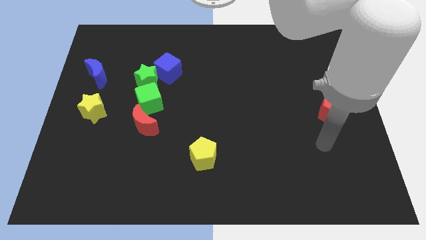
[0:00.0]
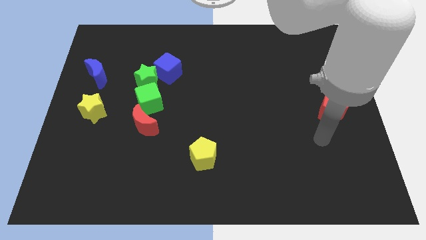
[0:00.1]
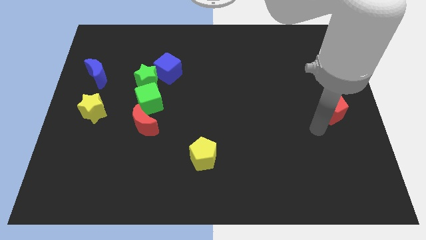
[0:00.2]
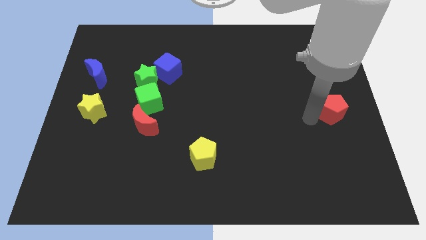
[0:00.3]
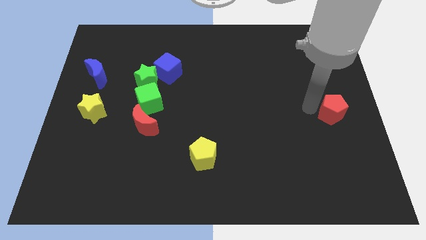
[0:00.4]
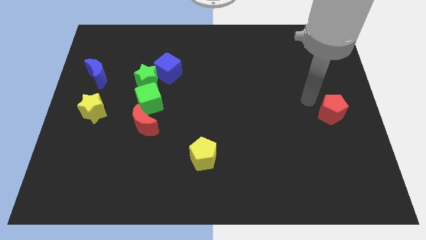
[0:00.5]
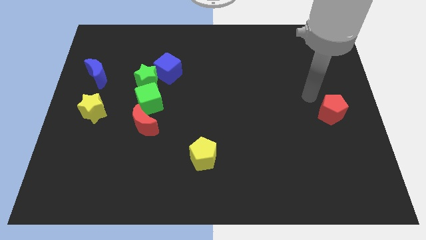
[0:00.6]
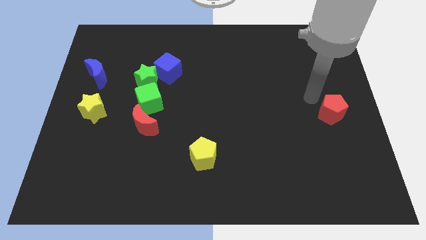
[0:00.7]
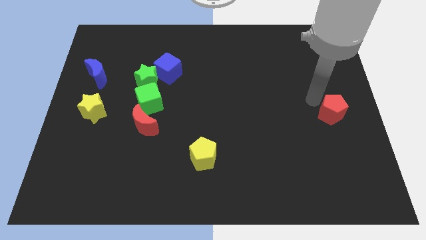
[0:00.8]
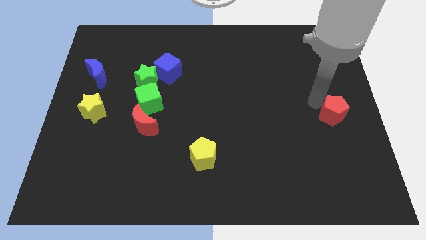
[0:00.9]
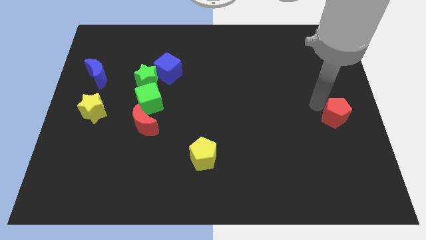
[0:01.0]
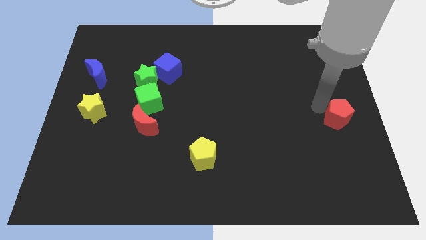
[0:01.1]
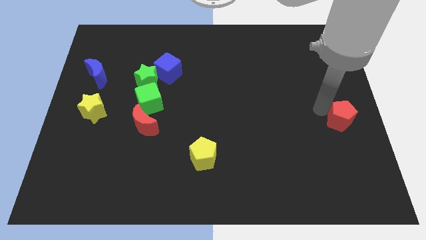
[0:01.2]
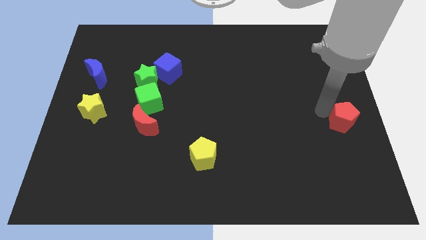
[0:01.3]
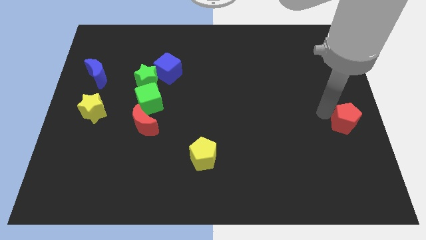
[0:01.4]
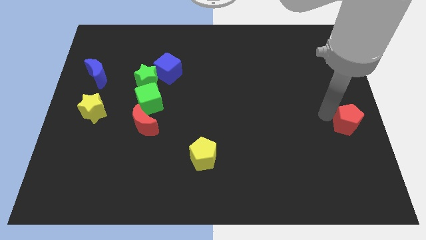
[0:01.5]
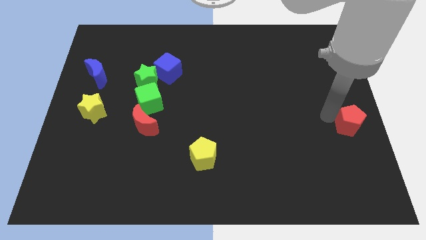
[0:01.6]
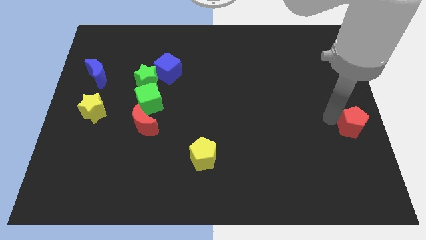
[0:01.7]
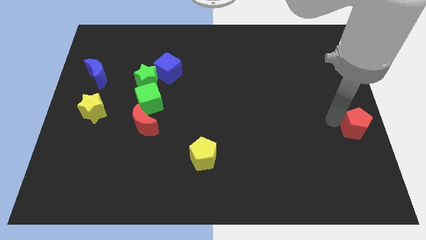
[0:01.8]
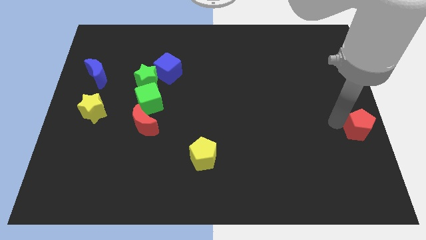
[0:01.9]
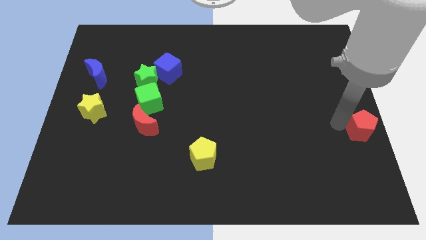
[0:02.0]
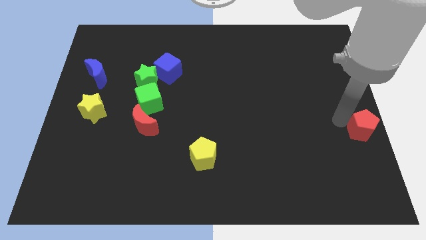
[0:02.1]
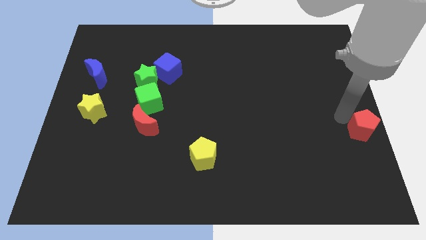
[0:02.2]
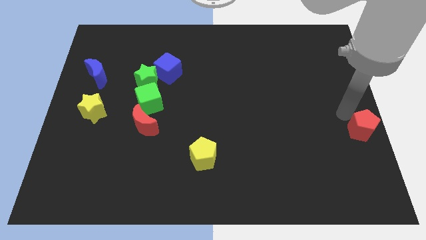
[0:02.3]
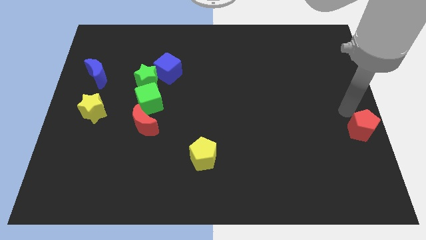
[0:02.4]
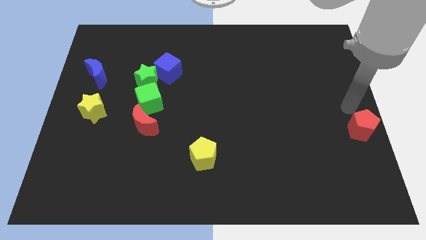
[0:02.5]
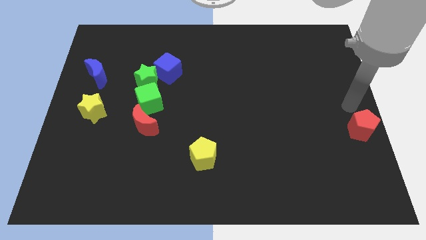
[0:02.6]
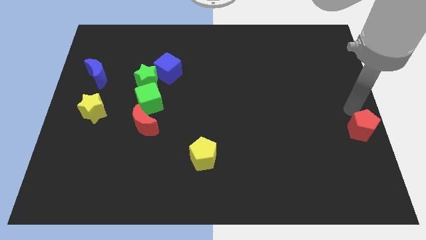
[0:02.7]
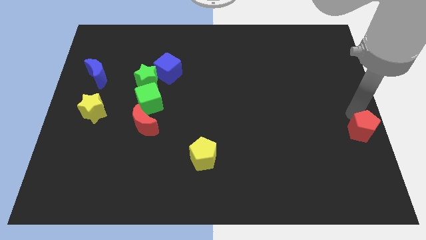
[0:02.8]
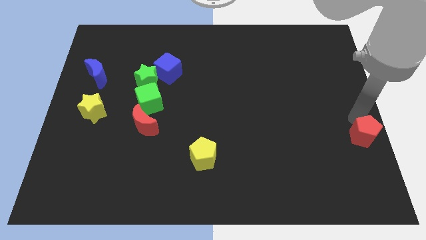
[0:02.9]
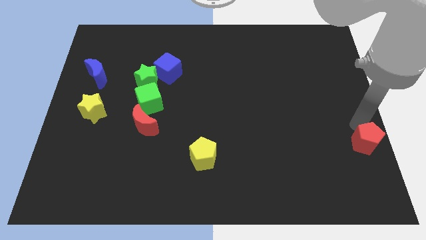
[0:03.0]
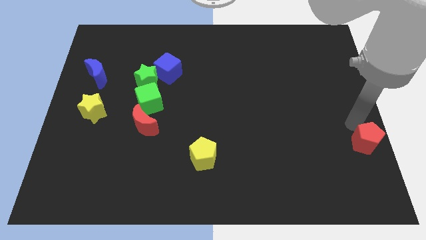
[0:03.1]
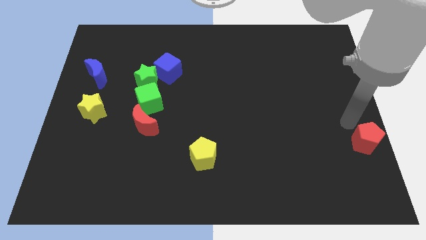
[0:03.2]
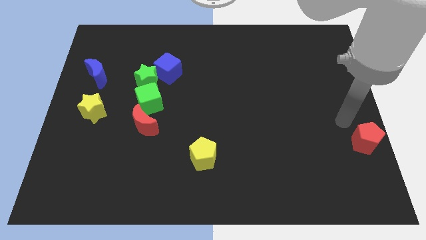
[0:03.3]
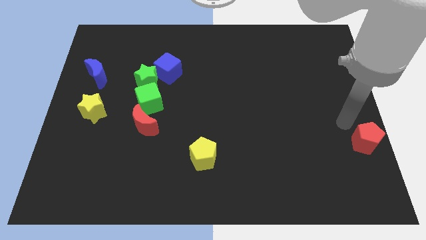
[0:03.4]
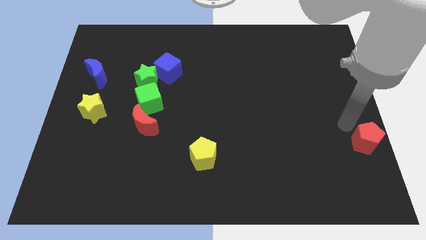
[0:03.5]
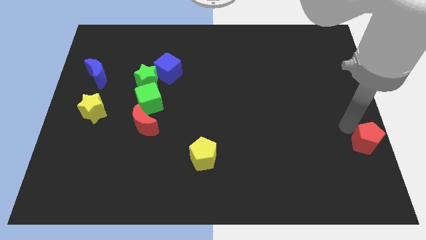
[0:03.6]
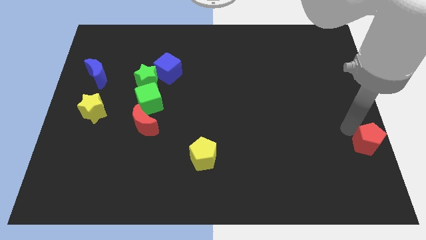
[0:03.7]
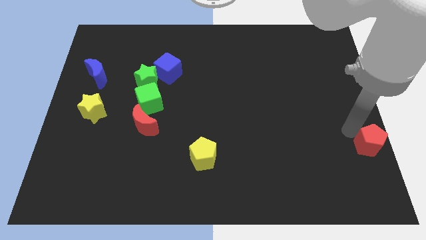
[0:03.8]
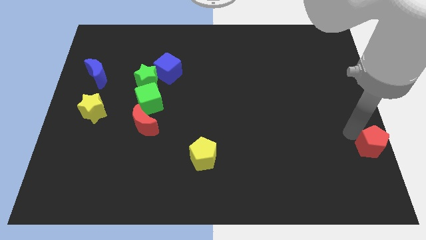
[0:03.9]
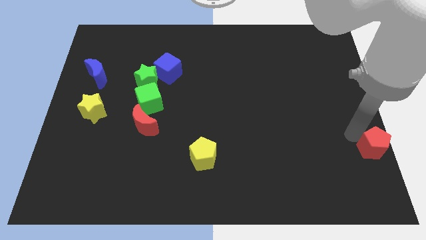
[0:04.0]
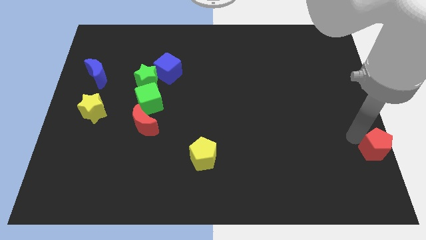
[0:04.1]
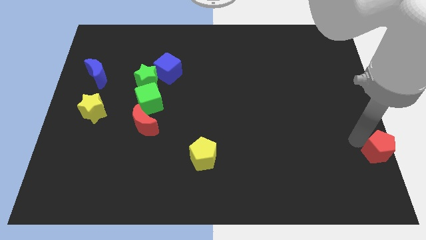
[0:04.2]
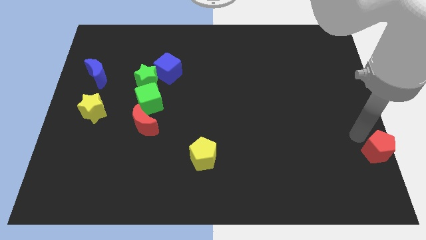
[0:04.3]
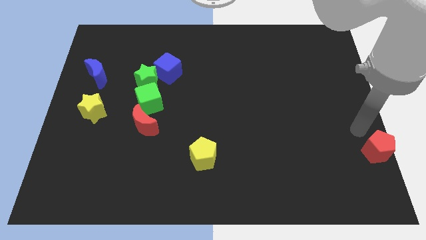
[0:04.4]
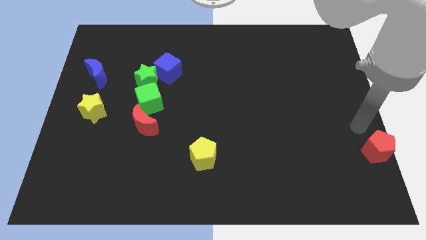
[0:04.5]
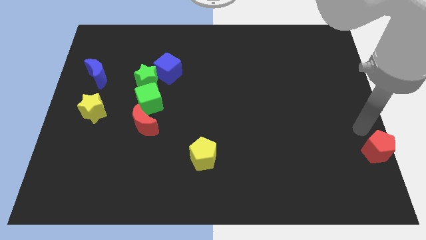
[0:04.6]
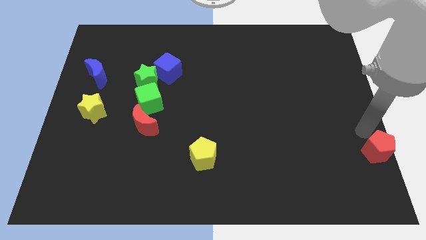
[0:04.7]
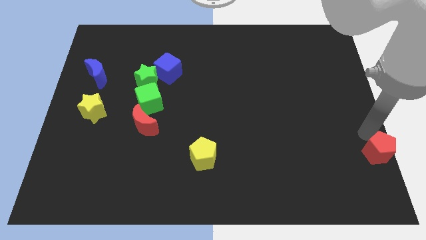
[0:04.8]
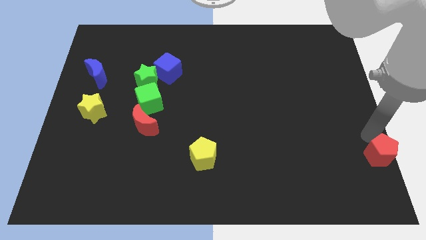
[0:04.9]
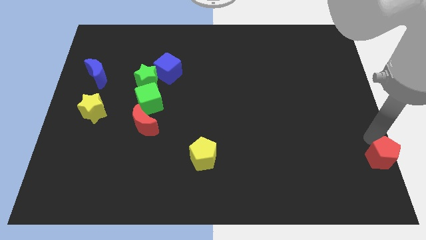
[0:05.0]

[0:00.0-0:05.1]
slide the red pentagon to the bottom right

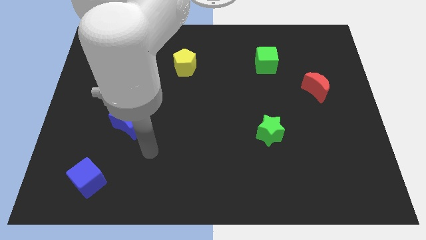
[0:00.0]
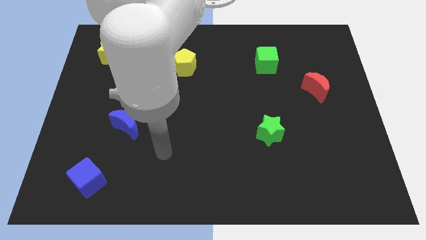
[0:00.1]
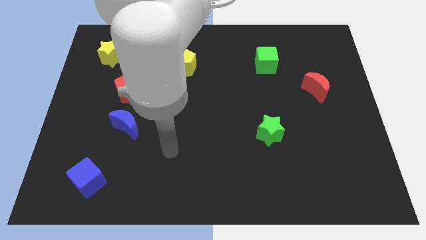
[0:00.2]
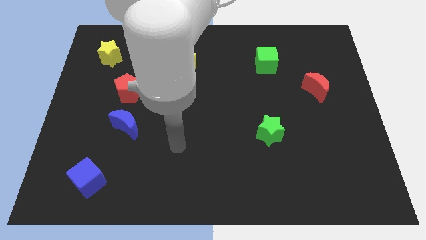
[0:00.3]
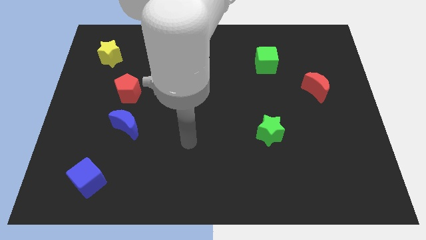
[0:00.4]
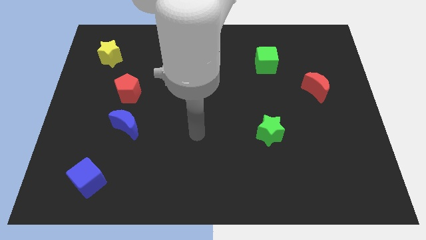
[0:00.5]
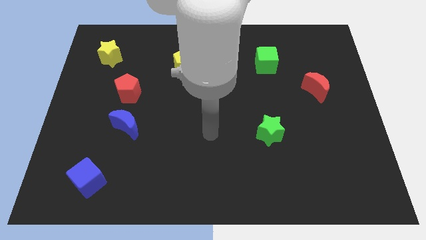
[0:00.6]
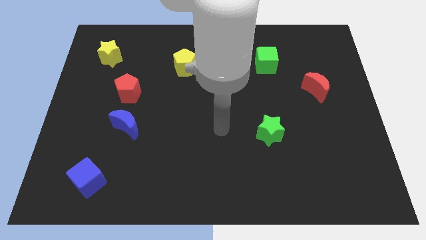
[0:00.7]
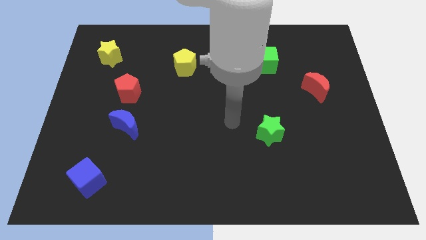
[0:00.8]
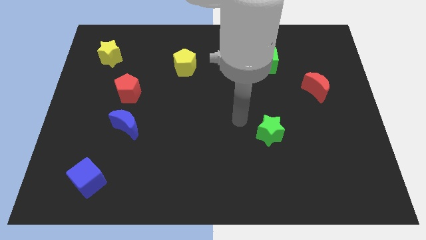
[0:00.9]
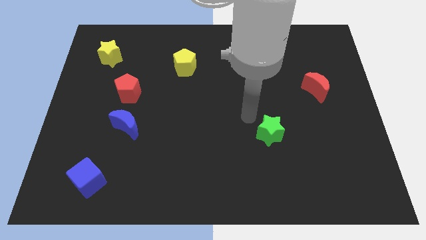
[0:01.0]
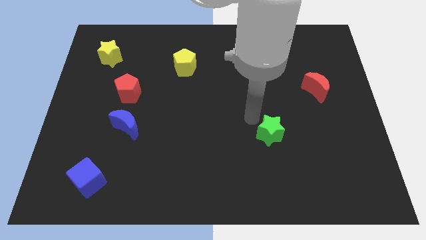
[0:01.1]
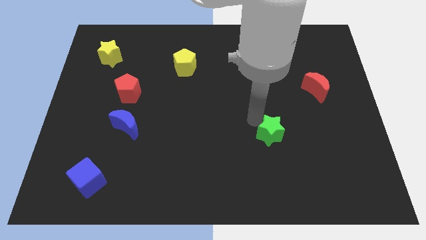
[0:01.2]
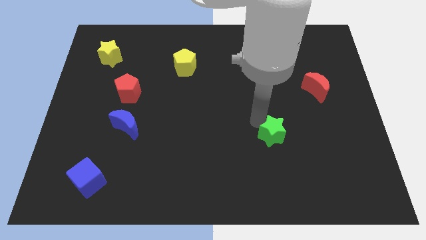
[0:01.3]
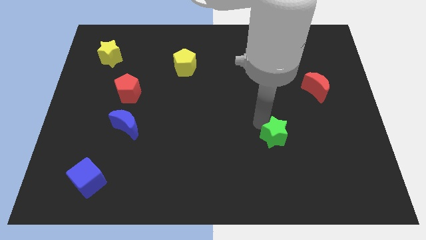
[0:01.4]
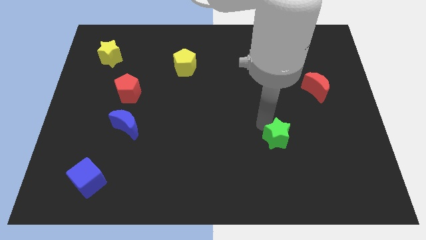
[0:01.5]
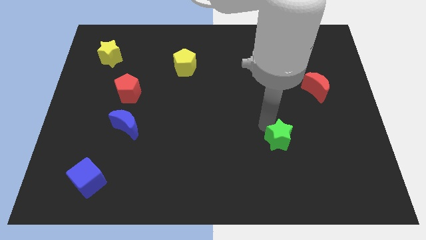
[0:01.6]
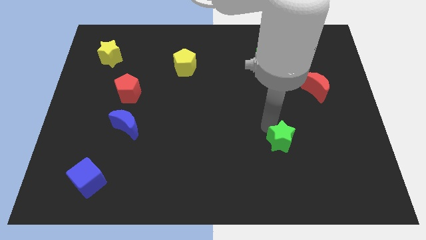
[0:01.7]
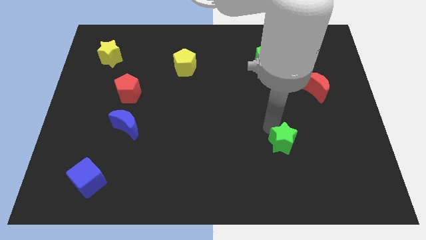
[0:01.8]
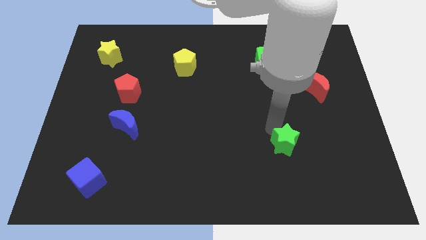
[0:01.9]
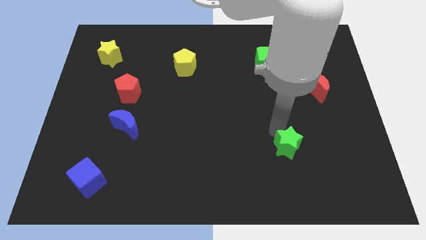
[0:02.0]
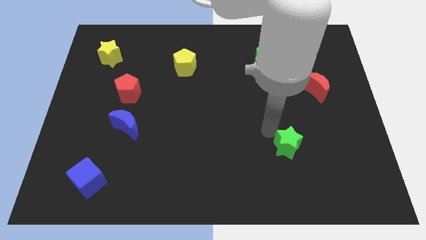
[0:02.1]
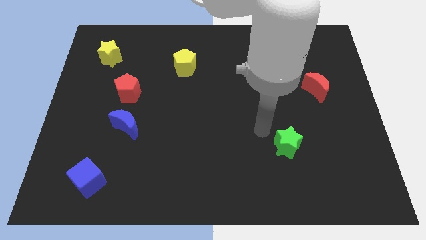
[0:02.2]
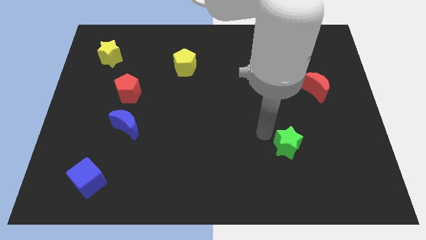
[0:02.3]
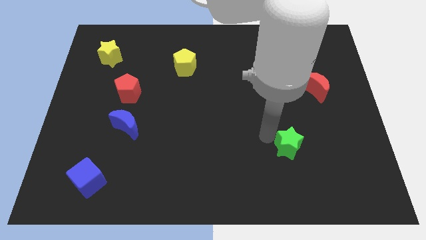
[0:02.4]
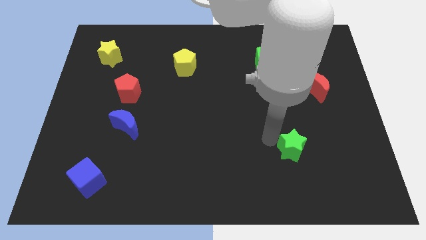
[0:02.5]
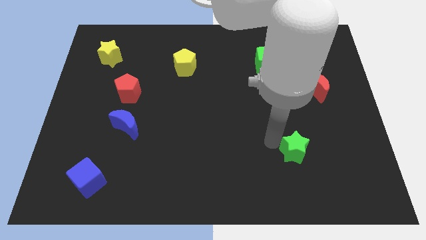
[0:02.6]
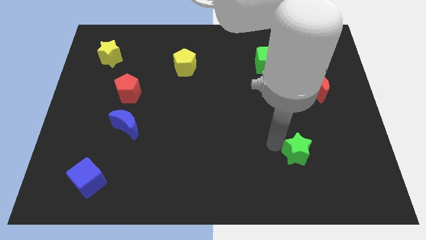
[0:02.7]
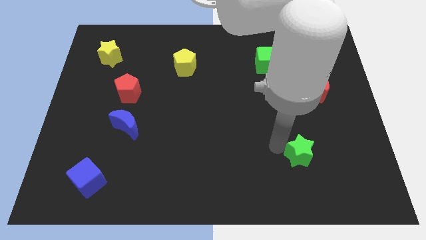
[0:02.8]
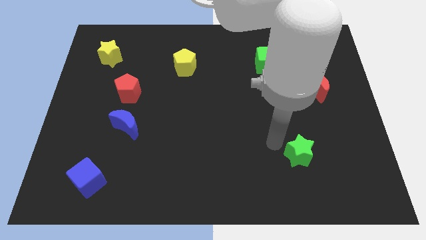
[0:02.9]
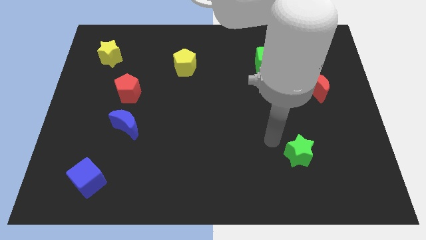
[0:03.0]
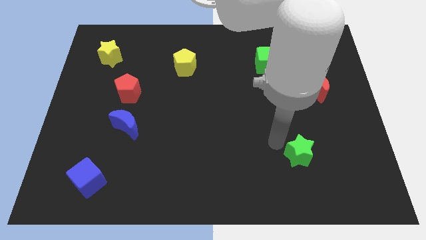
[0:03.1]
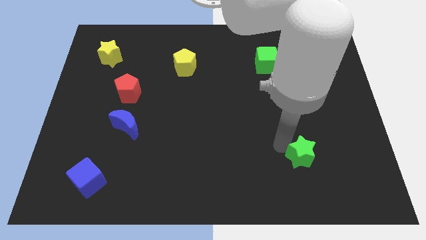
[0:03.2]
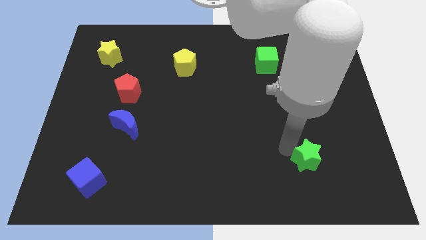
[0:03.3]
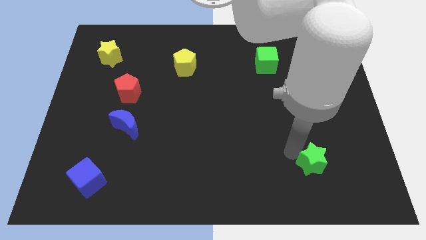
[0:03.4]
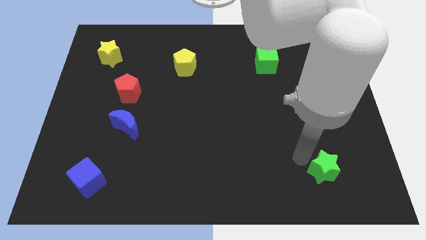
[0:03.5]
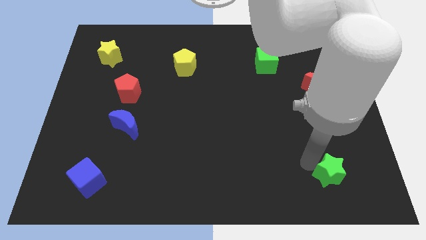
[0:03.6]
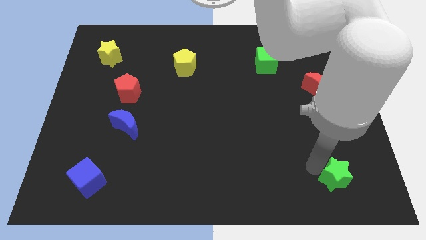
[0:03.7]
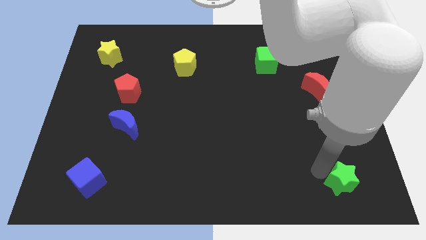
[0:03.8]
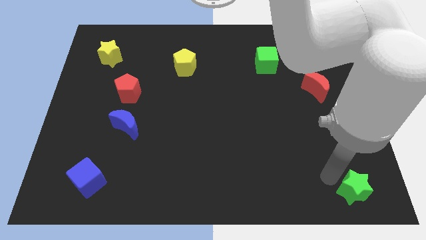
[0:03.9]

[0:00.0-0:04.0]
push the green star to the bottom right corner
